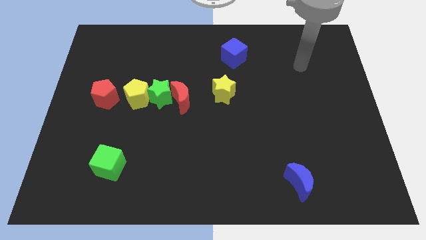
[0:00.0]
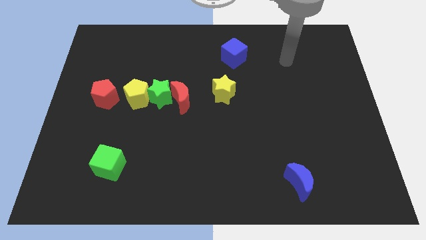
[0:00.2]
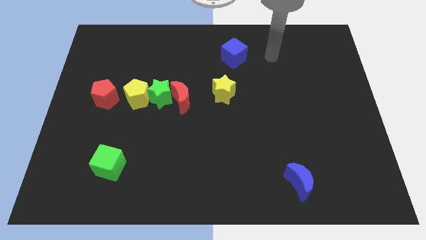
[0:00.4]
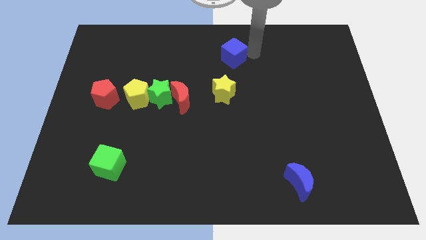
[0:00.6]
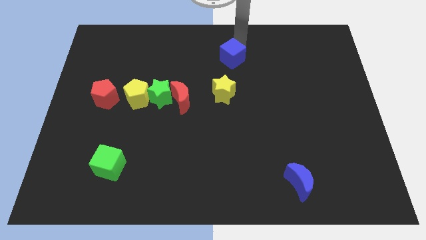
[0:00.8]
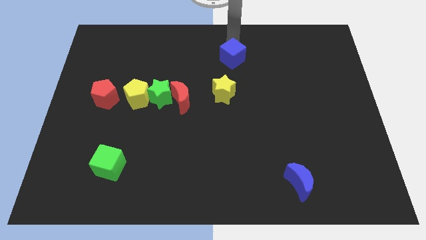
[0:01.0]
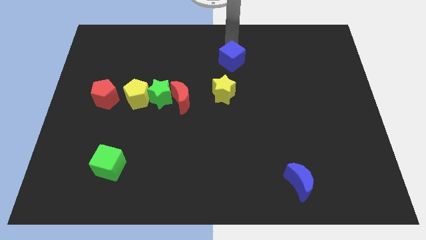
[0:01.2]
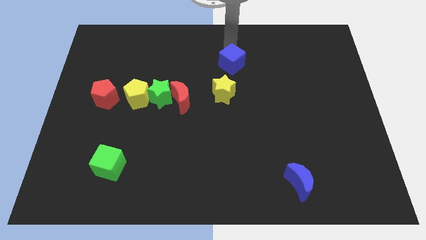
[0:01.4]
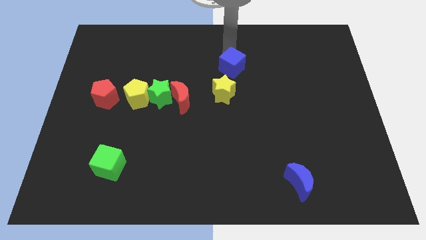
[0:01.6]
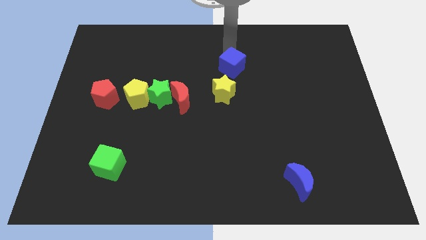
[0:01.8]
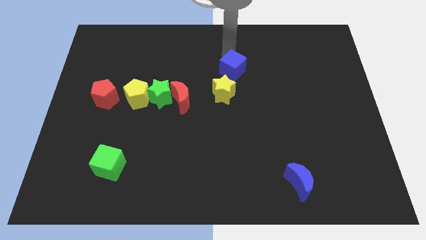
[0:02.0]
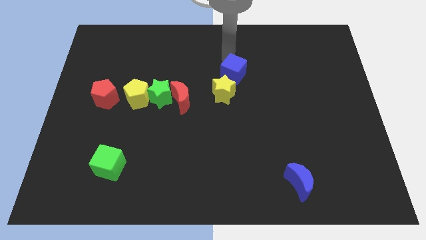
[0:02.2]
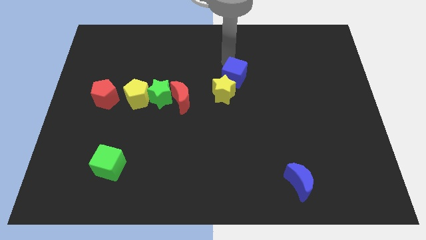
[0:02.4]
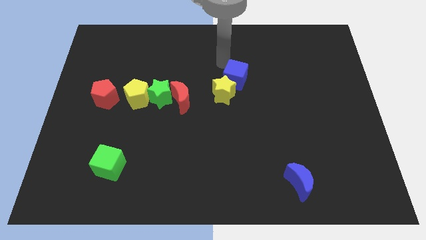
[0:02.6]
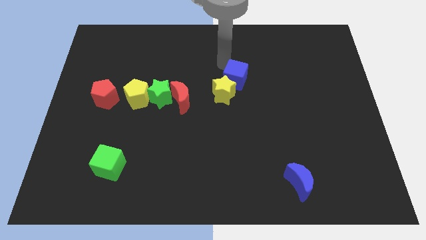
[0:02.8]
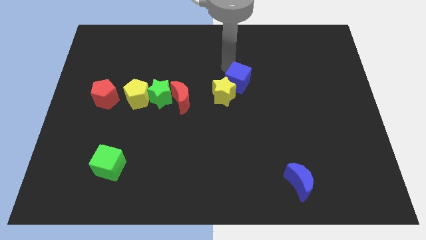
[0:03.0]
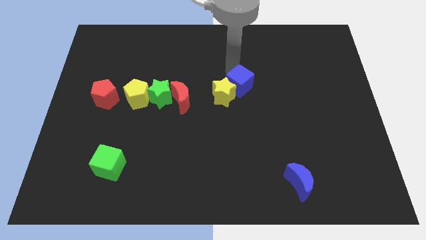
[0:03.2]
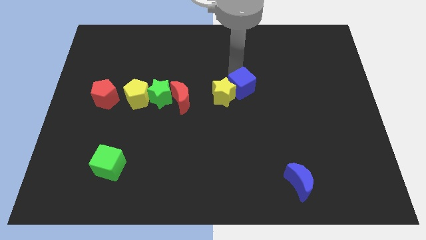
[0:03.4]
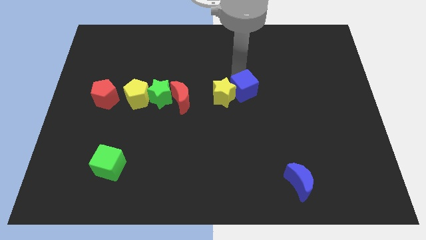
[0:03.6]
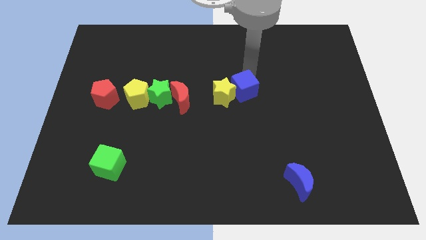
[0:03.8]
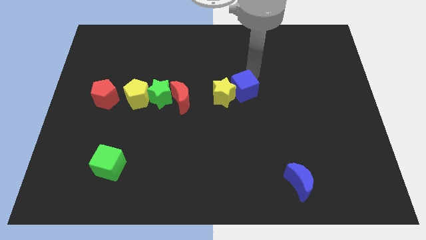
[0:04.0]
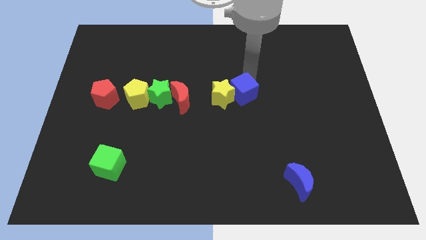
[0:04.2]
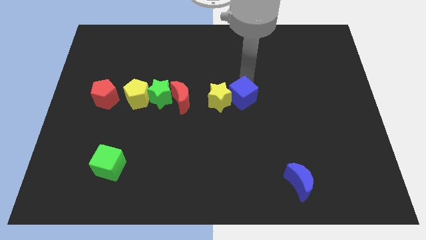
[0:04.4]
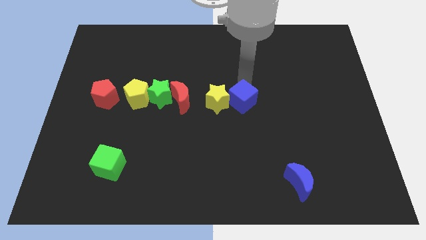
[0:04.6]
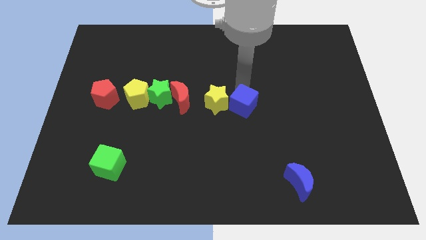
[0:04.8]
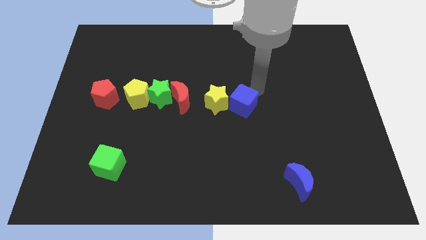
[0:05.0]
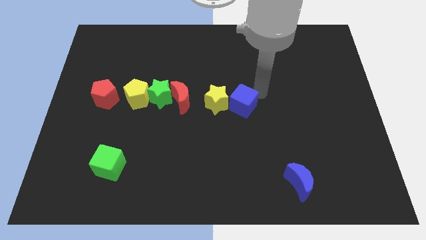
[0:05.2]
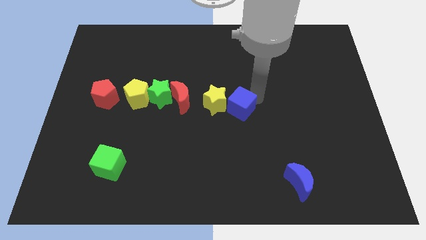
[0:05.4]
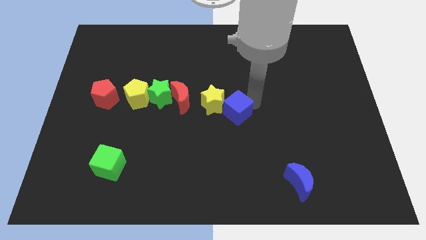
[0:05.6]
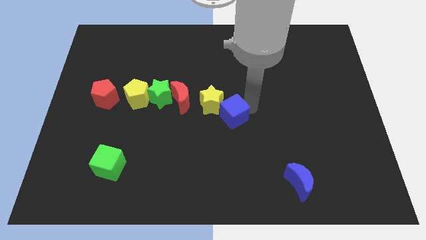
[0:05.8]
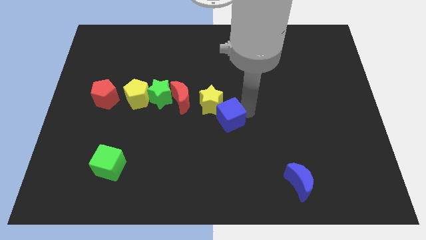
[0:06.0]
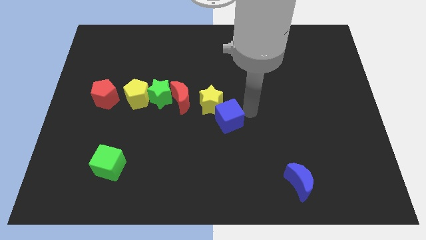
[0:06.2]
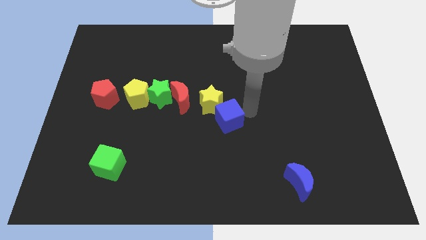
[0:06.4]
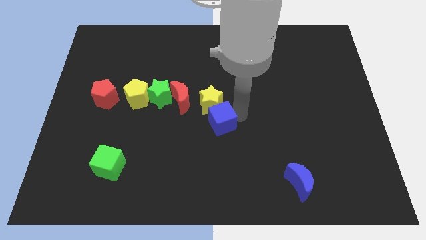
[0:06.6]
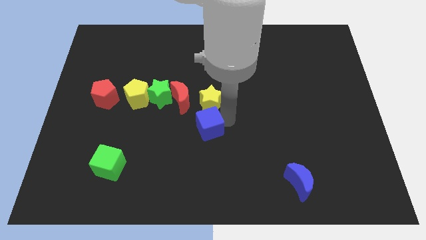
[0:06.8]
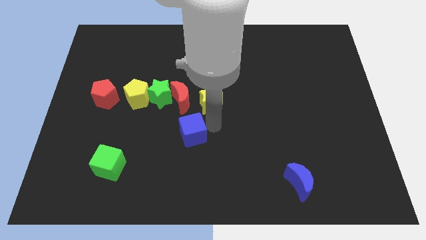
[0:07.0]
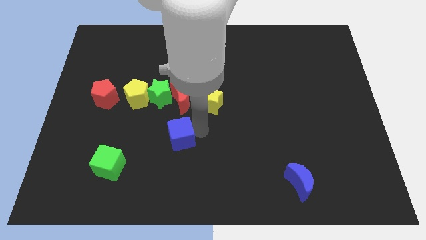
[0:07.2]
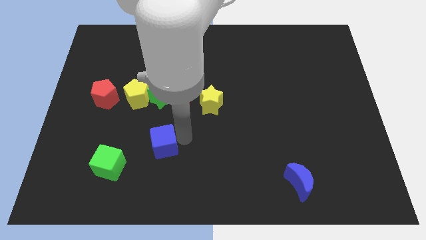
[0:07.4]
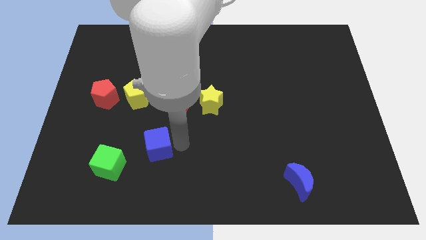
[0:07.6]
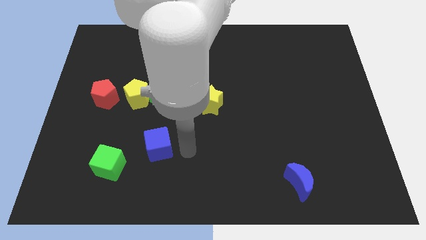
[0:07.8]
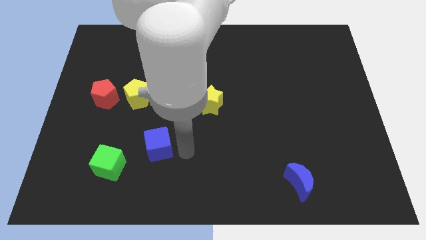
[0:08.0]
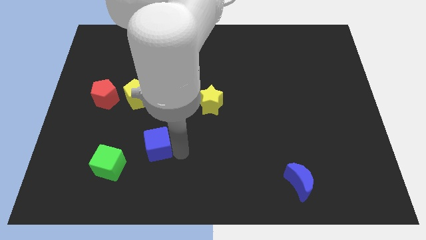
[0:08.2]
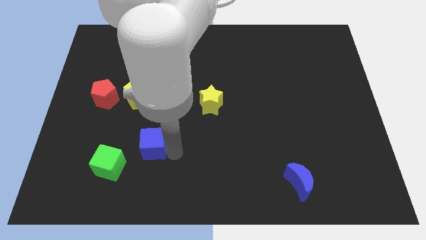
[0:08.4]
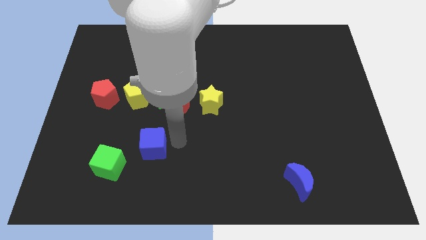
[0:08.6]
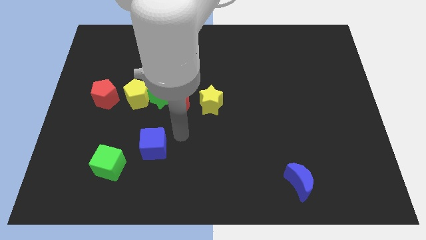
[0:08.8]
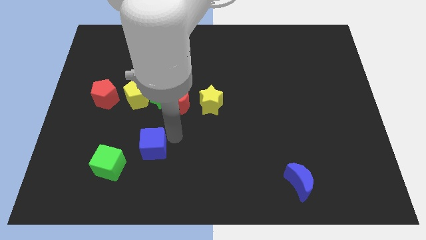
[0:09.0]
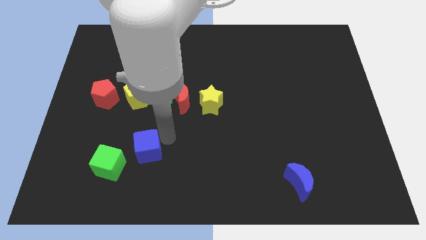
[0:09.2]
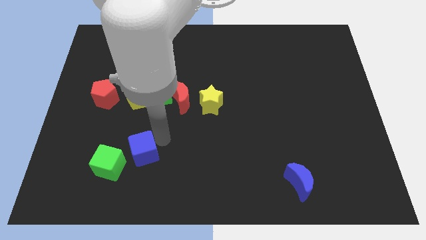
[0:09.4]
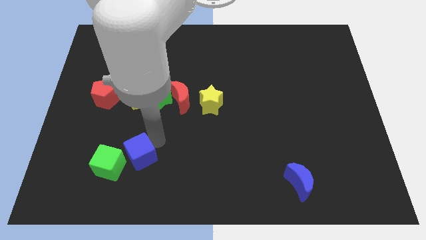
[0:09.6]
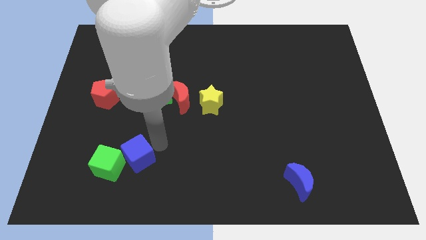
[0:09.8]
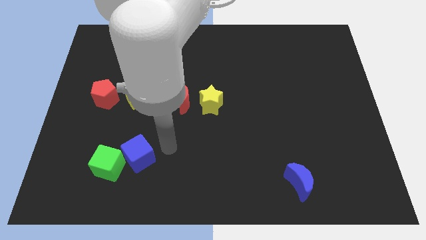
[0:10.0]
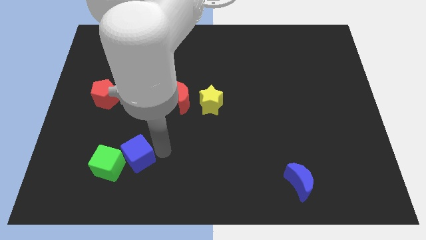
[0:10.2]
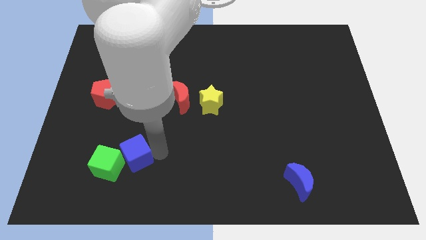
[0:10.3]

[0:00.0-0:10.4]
push the blue cube to the green cube

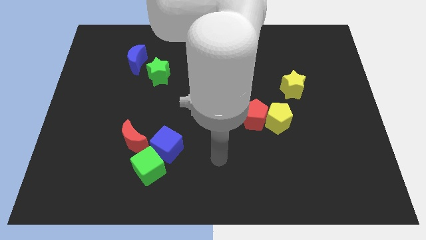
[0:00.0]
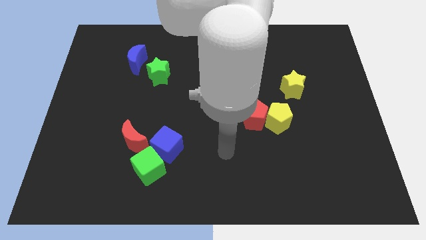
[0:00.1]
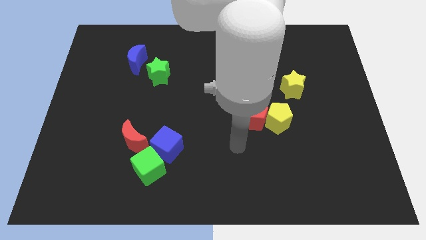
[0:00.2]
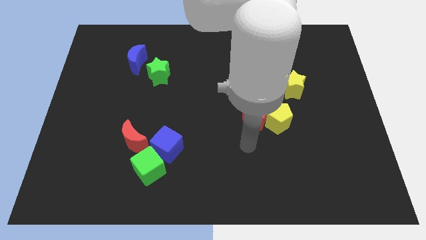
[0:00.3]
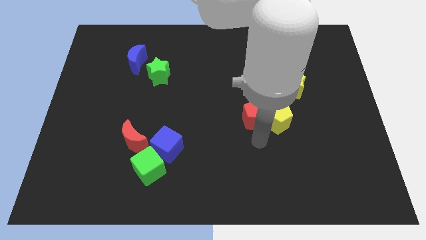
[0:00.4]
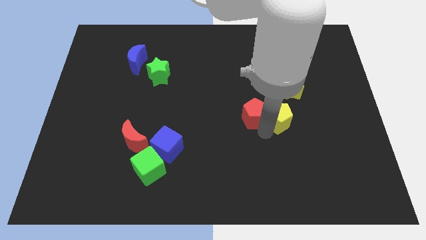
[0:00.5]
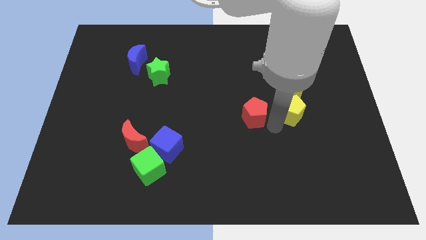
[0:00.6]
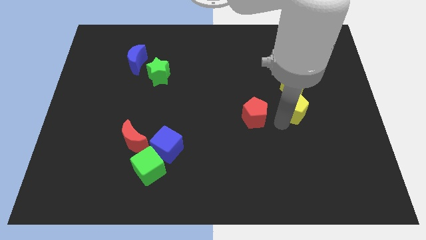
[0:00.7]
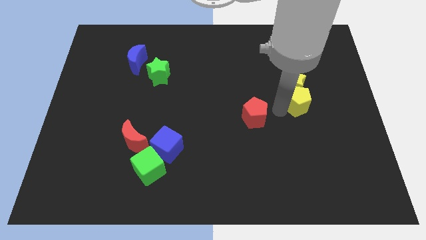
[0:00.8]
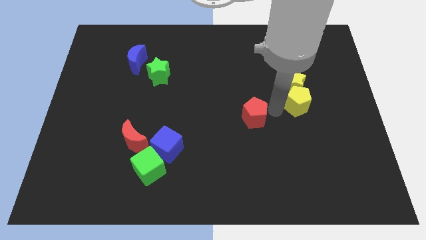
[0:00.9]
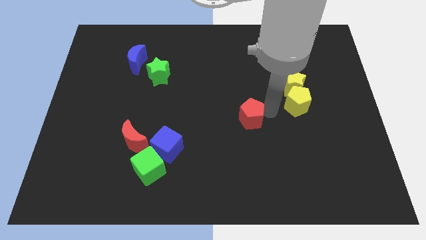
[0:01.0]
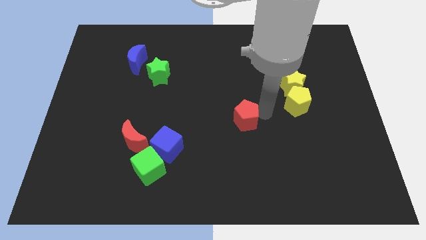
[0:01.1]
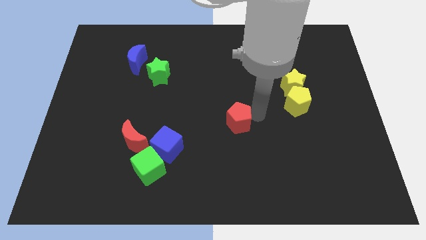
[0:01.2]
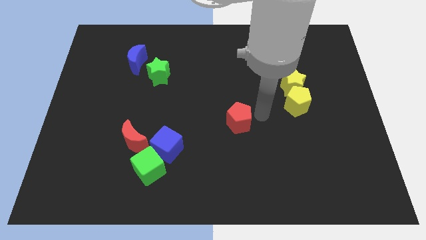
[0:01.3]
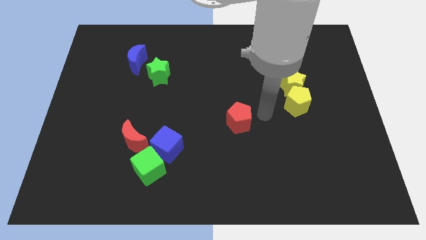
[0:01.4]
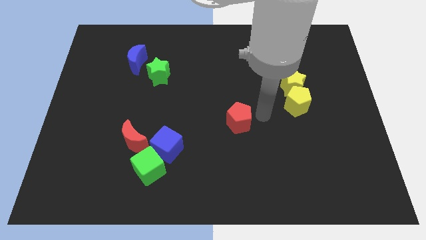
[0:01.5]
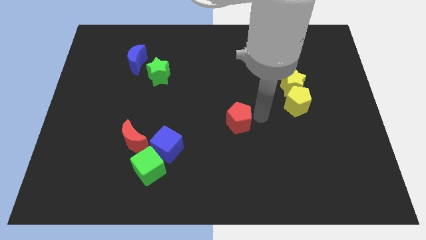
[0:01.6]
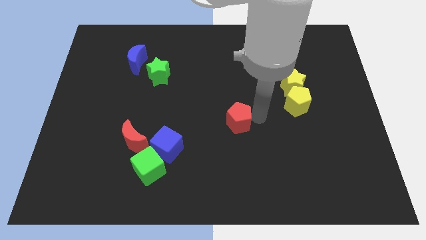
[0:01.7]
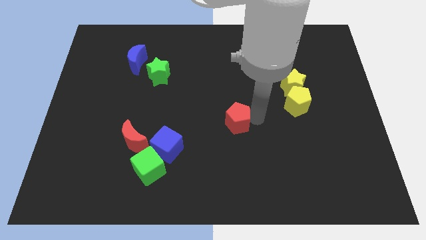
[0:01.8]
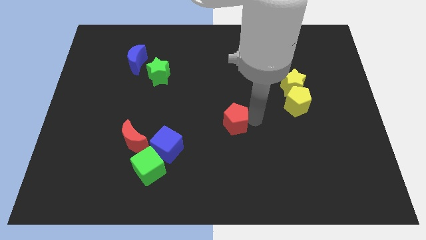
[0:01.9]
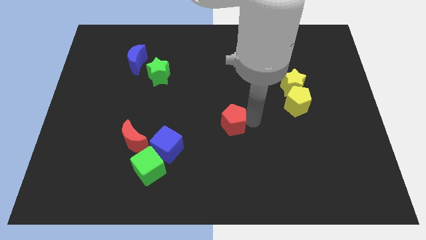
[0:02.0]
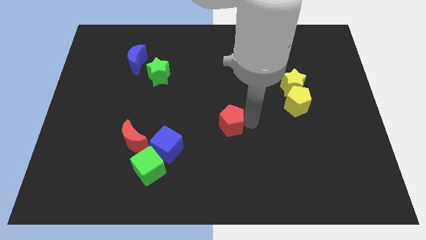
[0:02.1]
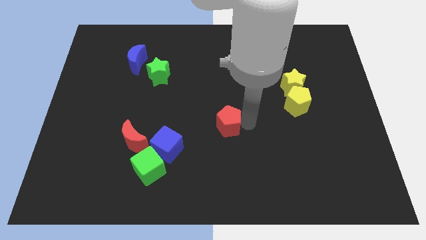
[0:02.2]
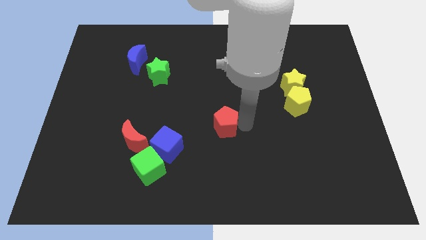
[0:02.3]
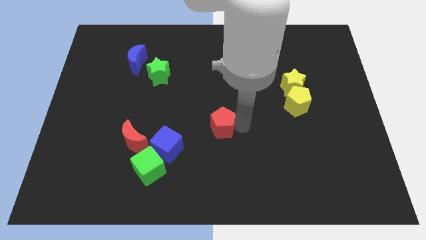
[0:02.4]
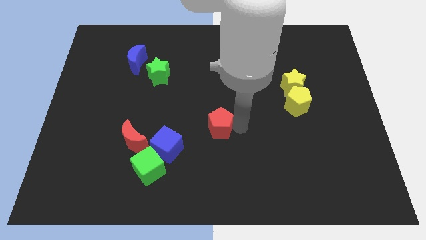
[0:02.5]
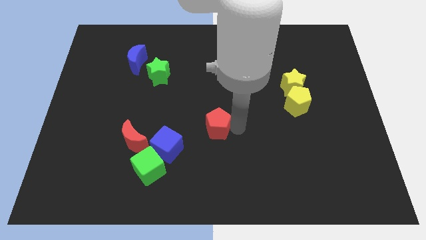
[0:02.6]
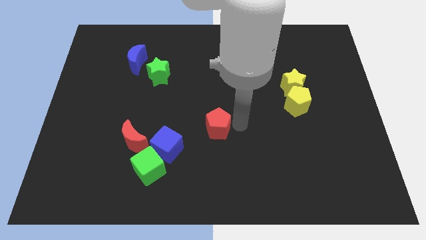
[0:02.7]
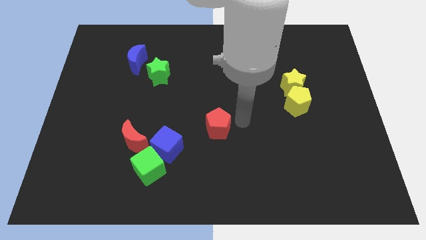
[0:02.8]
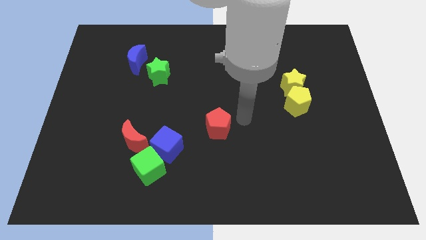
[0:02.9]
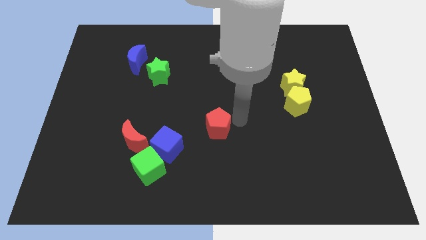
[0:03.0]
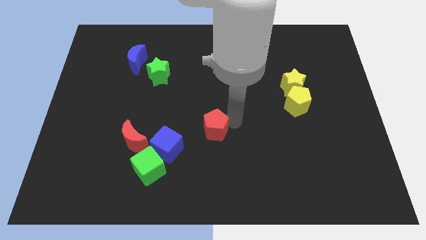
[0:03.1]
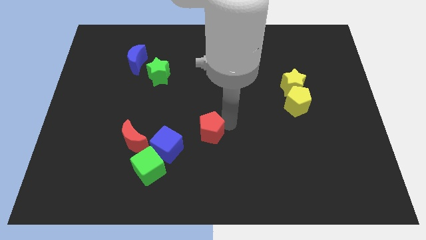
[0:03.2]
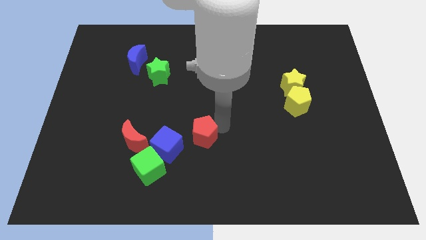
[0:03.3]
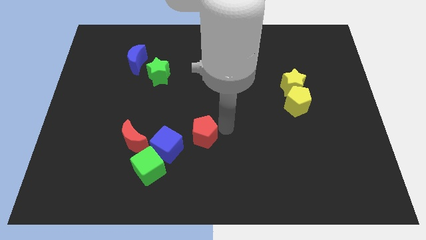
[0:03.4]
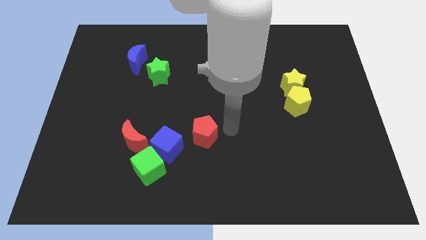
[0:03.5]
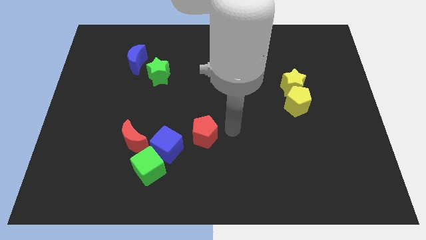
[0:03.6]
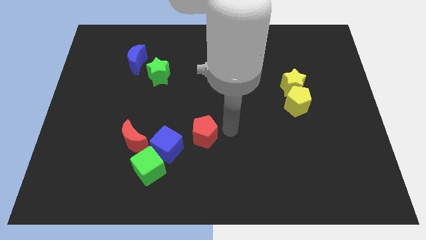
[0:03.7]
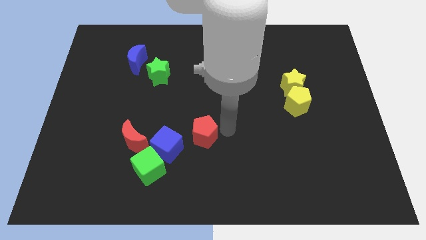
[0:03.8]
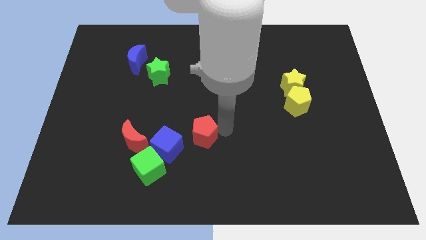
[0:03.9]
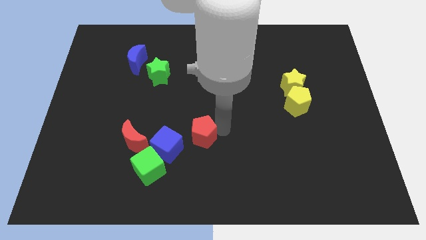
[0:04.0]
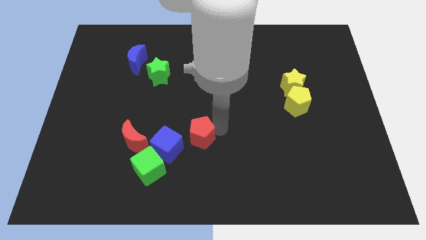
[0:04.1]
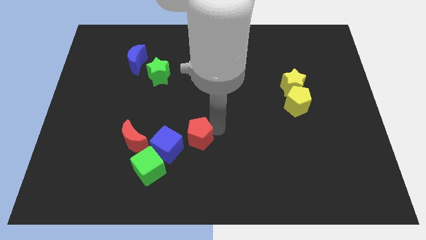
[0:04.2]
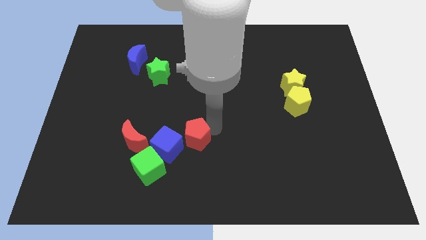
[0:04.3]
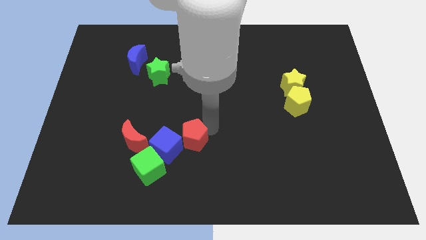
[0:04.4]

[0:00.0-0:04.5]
move the red pentagon to the blue cube
